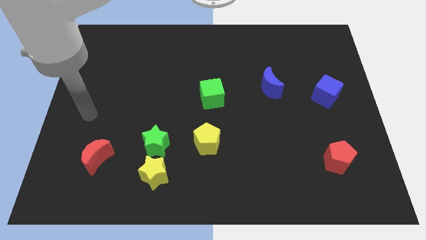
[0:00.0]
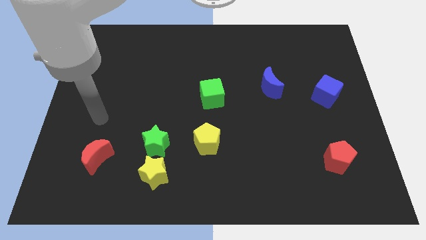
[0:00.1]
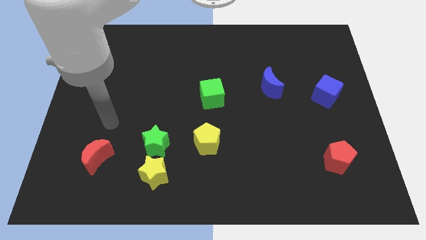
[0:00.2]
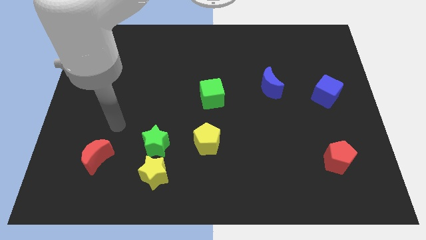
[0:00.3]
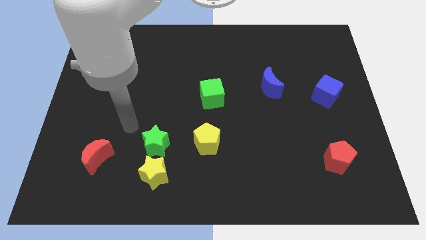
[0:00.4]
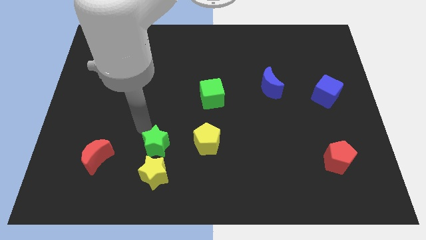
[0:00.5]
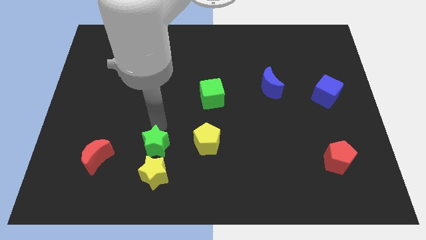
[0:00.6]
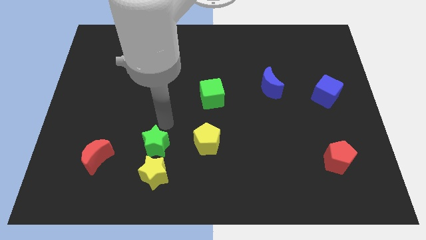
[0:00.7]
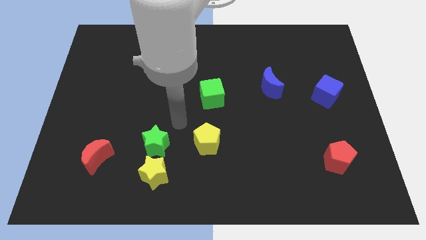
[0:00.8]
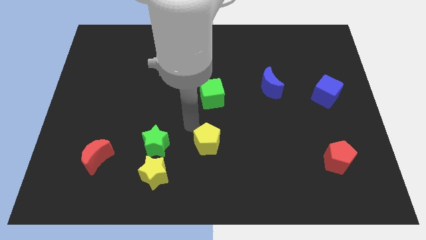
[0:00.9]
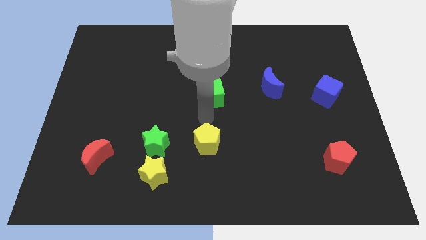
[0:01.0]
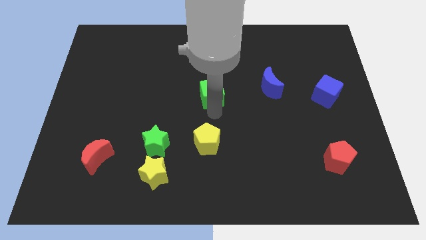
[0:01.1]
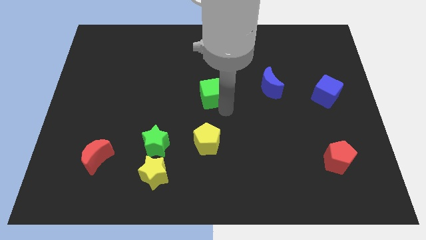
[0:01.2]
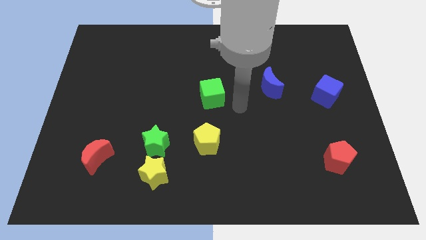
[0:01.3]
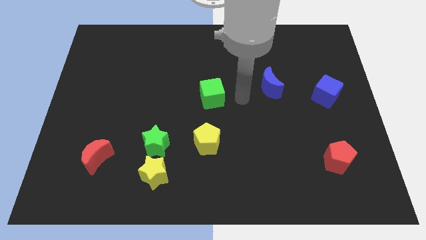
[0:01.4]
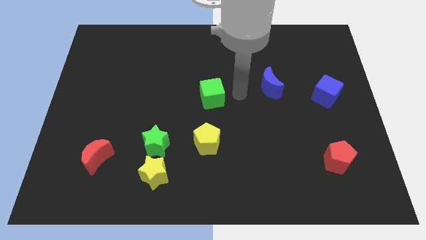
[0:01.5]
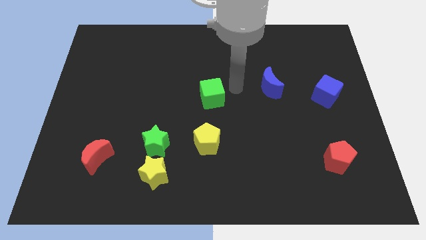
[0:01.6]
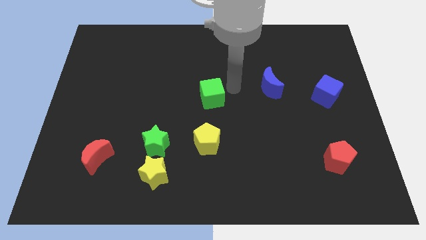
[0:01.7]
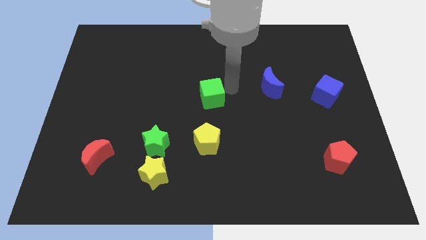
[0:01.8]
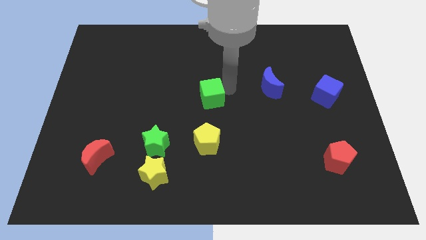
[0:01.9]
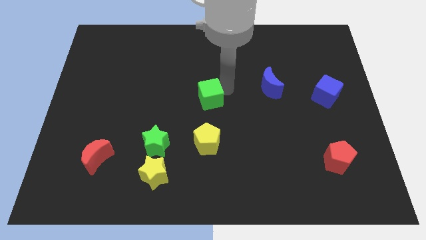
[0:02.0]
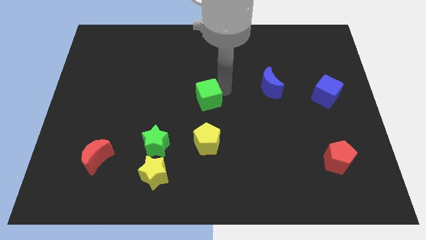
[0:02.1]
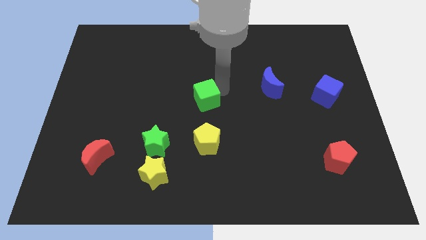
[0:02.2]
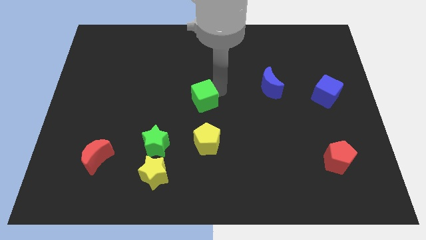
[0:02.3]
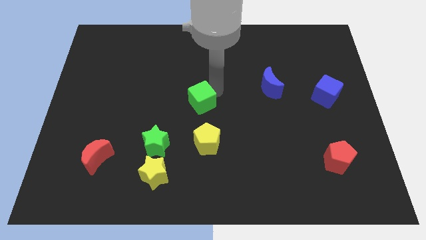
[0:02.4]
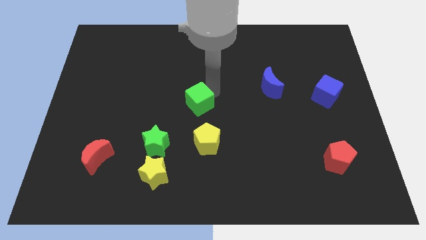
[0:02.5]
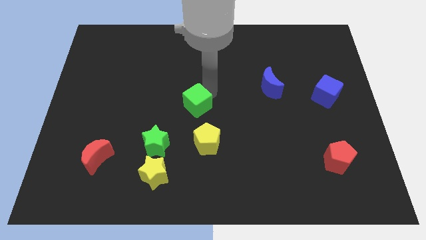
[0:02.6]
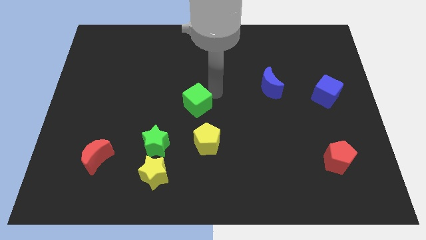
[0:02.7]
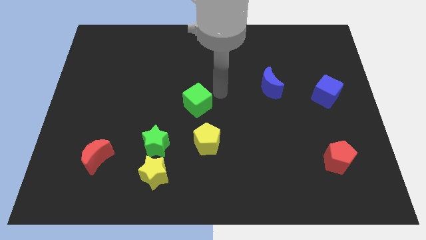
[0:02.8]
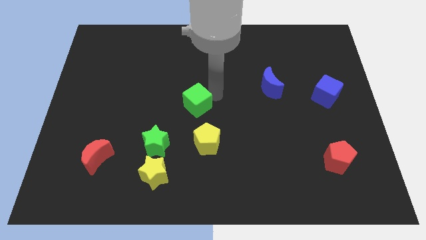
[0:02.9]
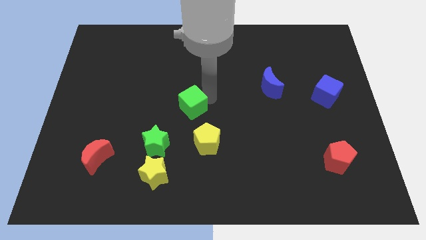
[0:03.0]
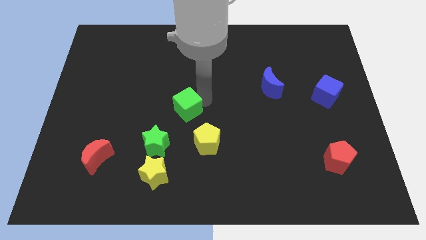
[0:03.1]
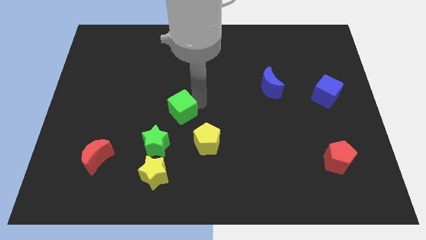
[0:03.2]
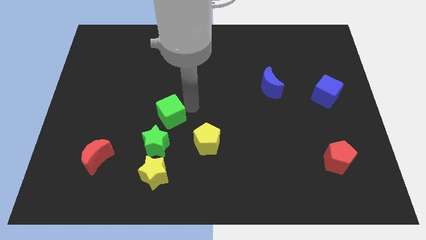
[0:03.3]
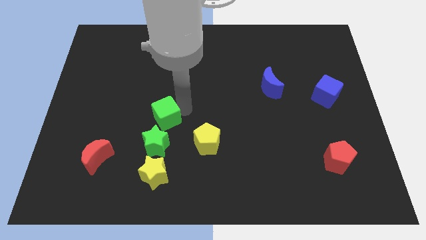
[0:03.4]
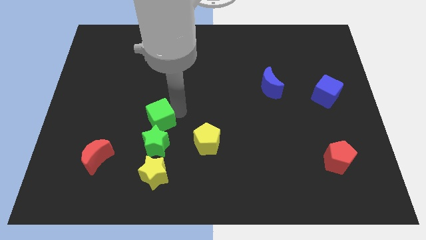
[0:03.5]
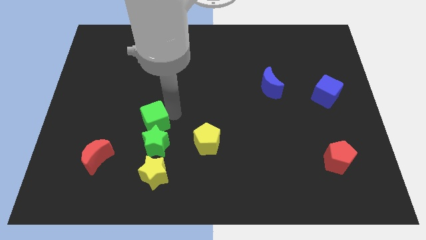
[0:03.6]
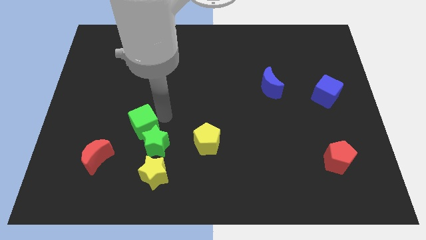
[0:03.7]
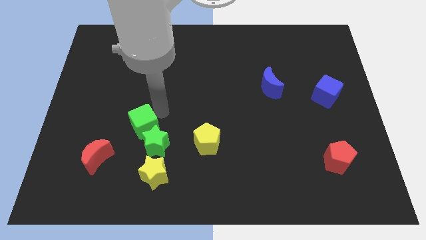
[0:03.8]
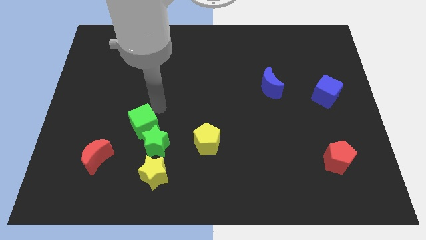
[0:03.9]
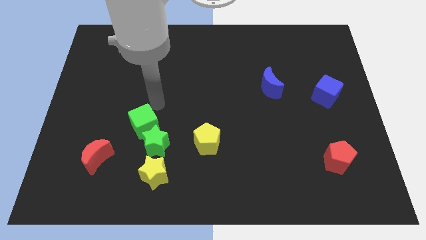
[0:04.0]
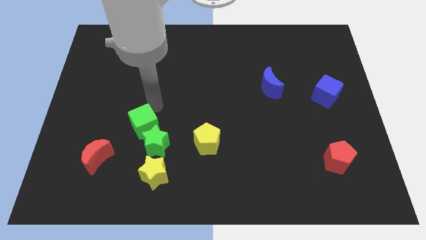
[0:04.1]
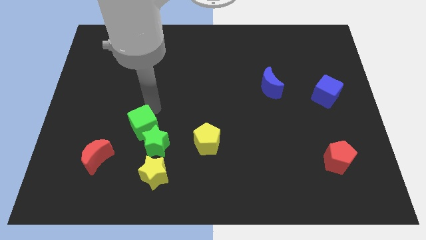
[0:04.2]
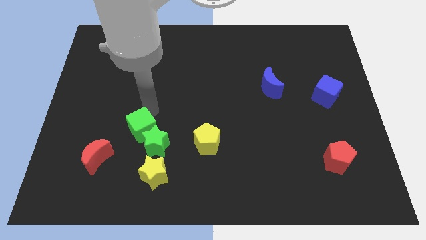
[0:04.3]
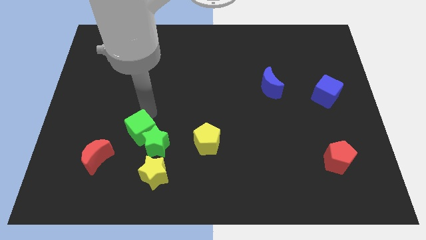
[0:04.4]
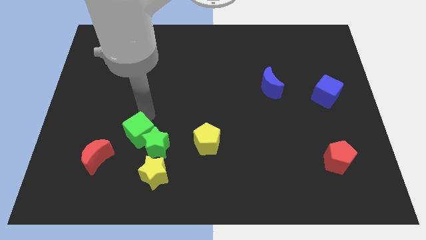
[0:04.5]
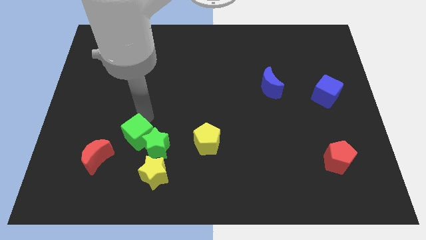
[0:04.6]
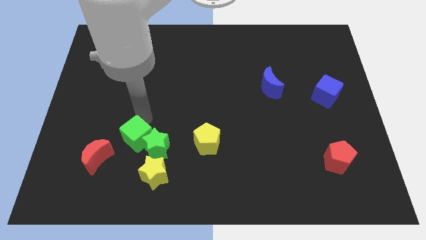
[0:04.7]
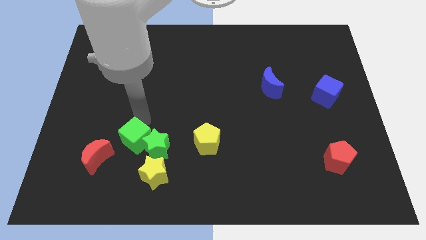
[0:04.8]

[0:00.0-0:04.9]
slide the green cube downwards and left diagonally

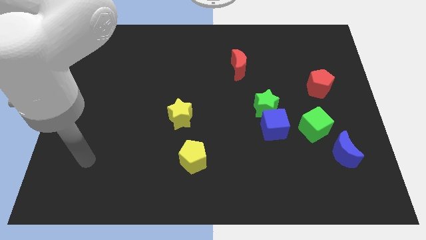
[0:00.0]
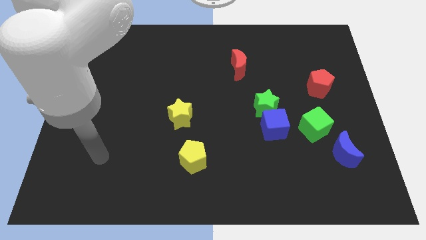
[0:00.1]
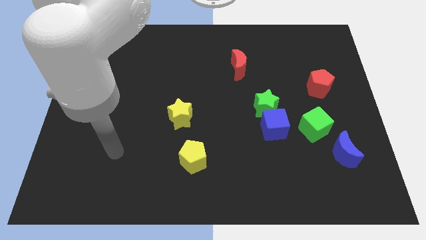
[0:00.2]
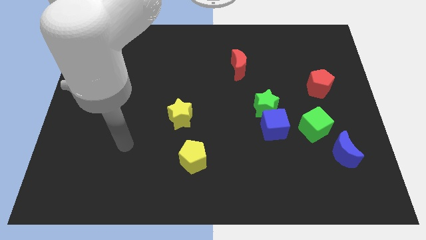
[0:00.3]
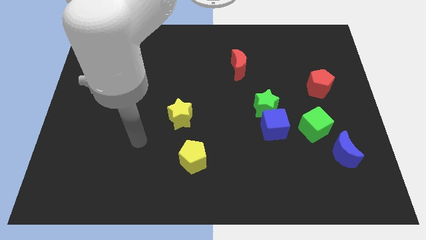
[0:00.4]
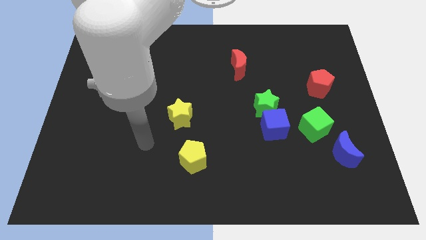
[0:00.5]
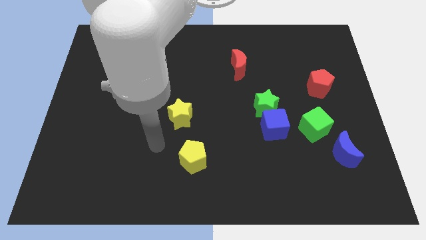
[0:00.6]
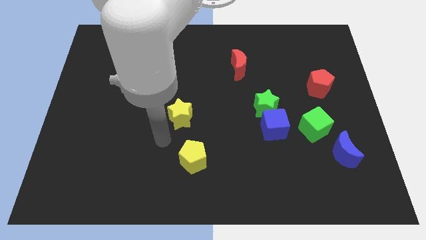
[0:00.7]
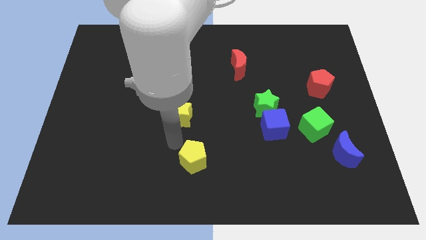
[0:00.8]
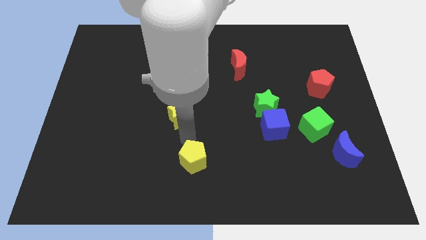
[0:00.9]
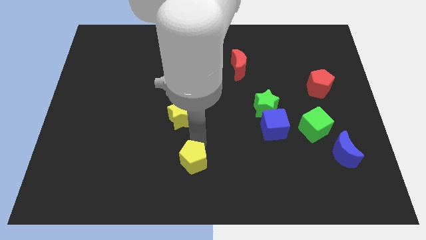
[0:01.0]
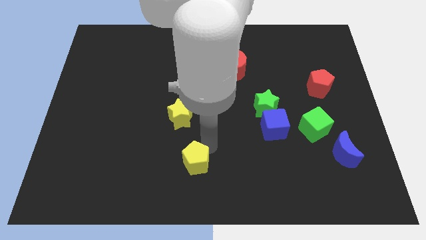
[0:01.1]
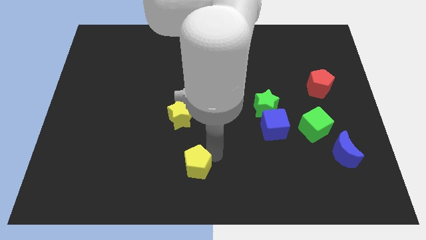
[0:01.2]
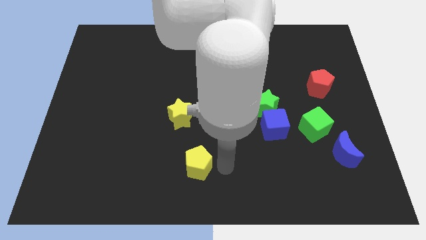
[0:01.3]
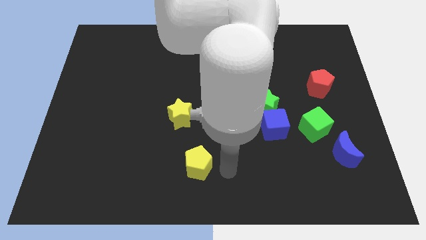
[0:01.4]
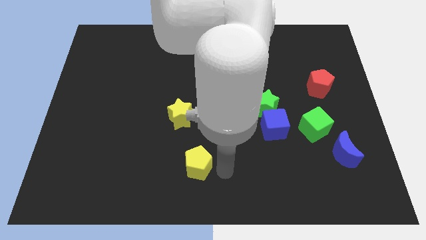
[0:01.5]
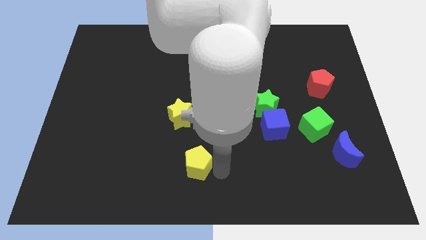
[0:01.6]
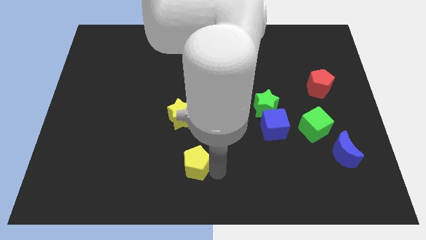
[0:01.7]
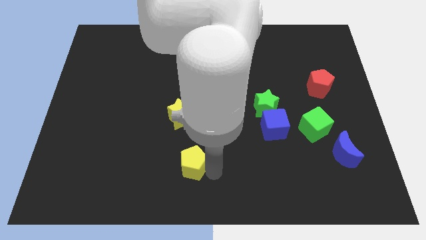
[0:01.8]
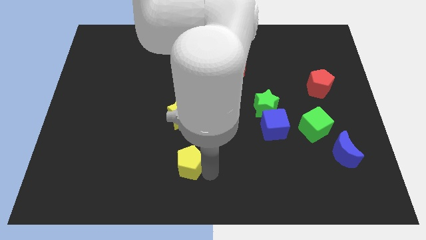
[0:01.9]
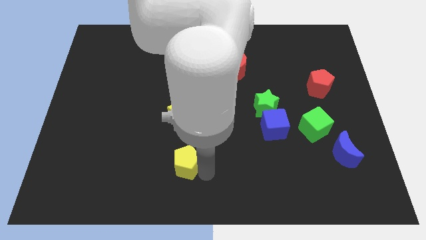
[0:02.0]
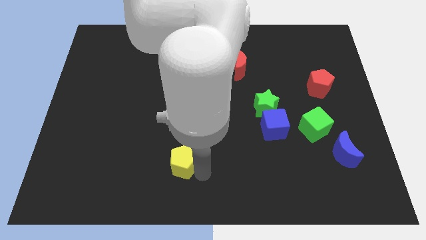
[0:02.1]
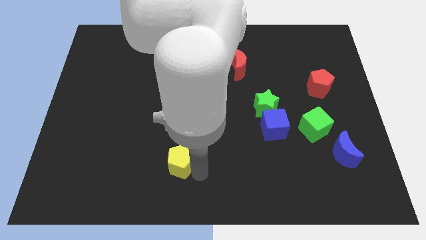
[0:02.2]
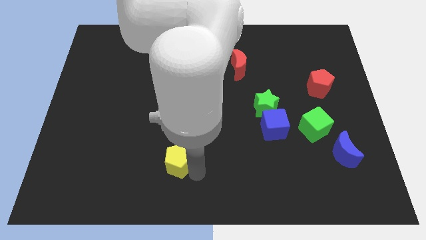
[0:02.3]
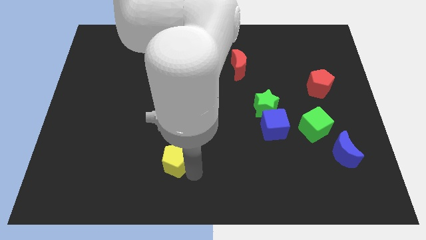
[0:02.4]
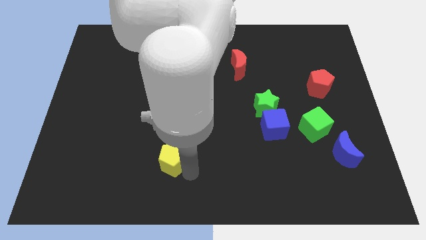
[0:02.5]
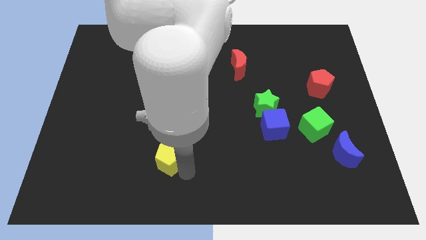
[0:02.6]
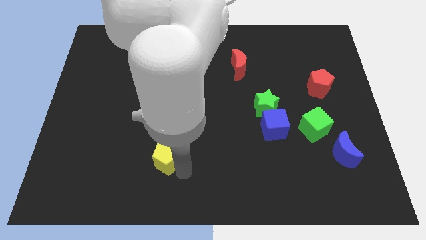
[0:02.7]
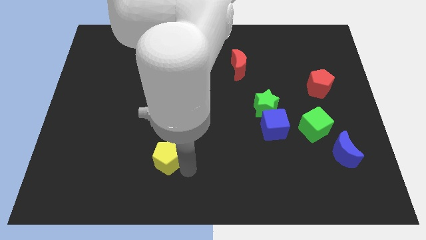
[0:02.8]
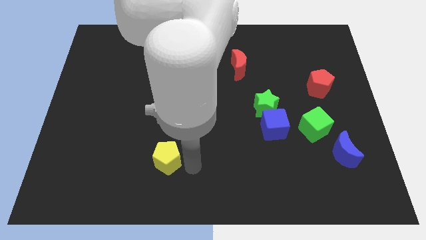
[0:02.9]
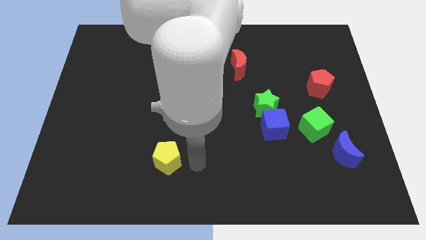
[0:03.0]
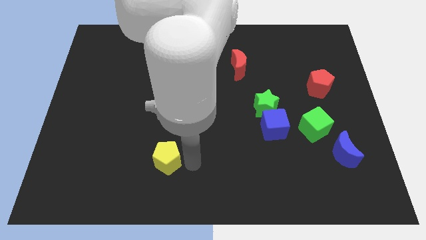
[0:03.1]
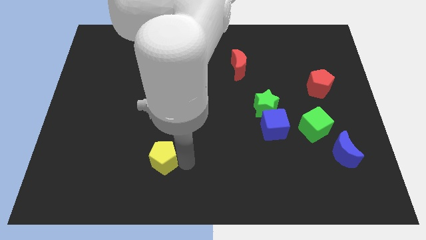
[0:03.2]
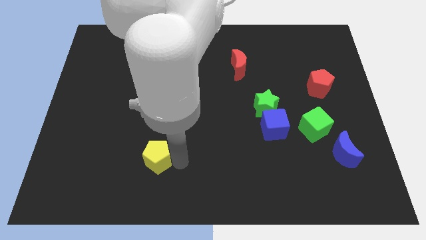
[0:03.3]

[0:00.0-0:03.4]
slide the yellow pentagon to the left a bit
